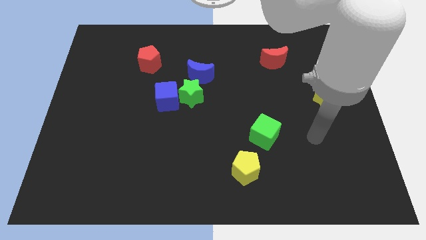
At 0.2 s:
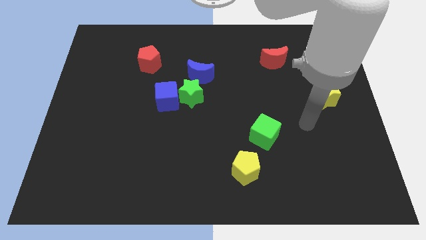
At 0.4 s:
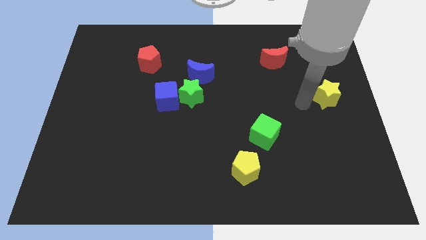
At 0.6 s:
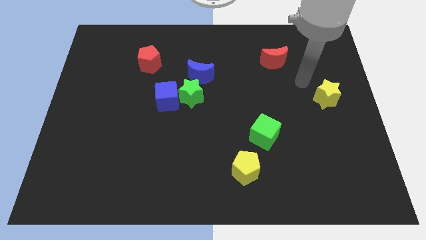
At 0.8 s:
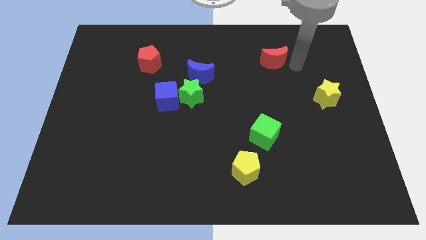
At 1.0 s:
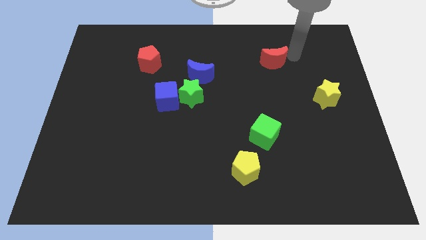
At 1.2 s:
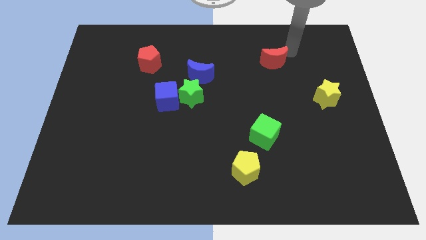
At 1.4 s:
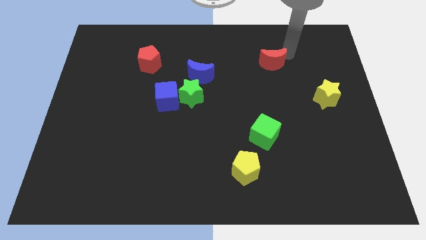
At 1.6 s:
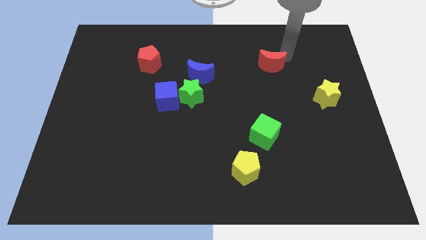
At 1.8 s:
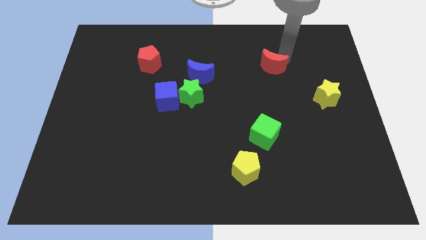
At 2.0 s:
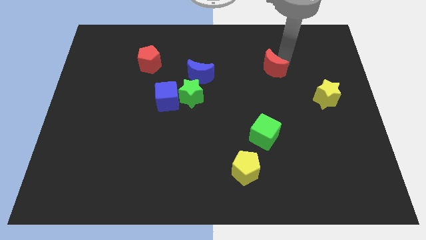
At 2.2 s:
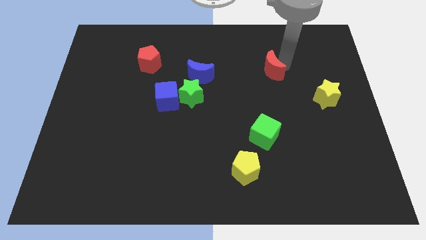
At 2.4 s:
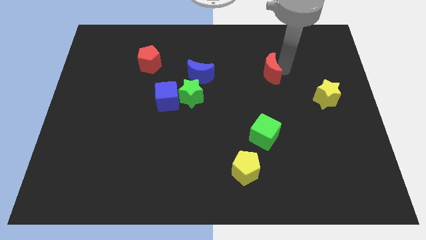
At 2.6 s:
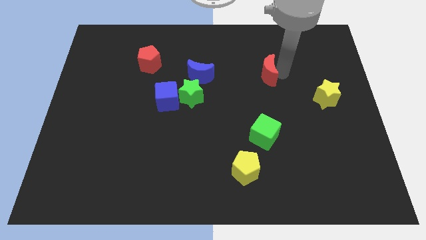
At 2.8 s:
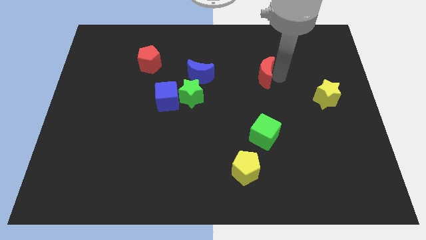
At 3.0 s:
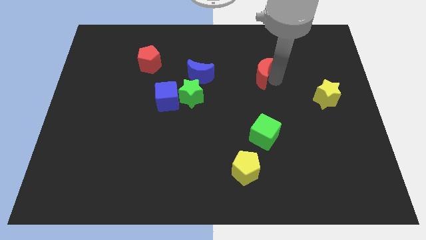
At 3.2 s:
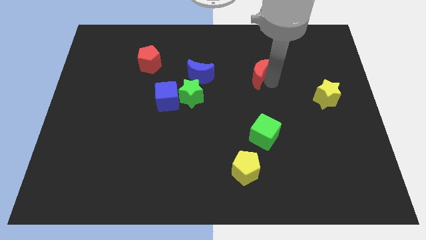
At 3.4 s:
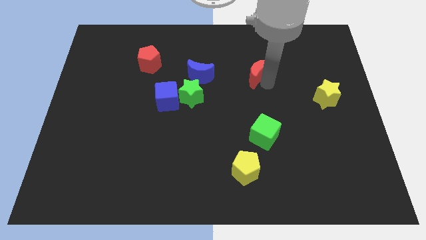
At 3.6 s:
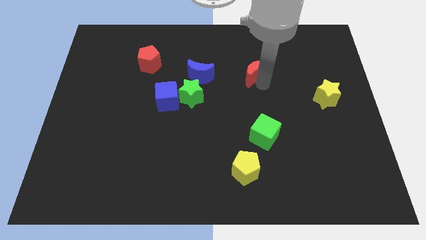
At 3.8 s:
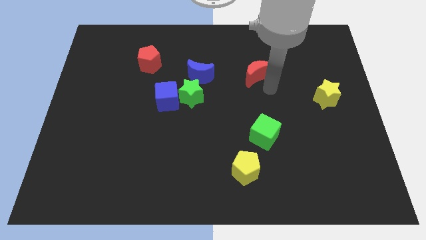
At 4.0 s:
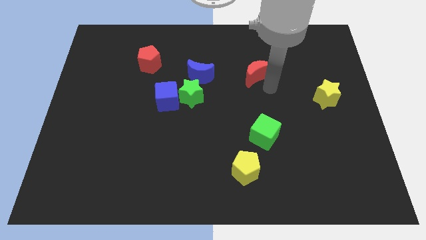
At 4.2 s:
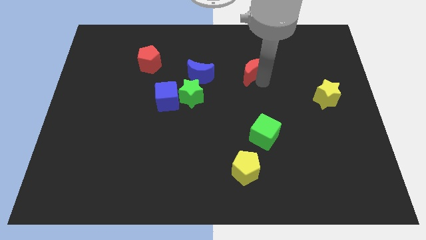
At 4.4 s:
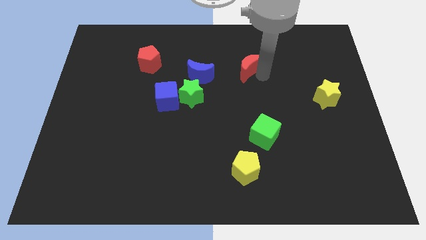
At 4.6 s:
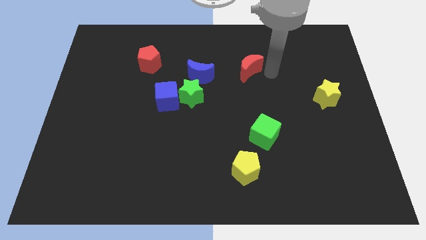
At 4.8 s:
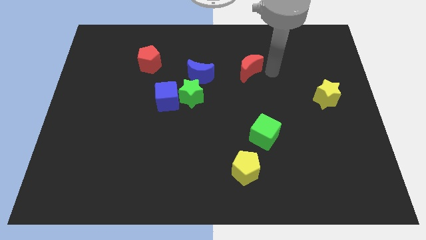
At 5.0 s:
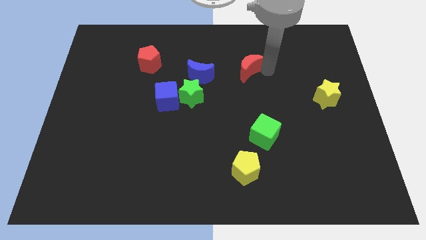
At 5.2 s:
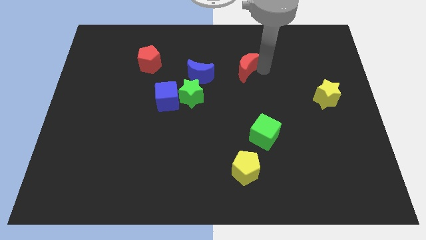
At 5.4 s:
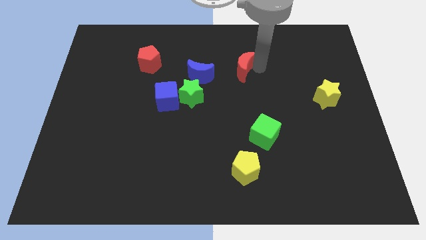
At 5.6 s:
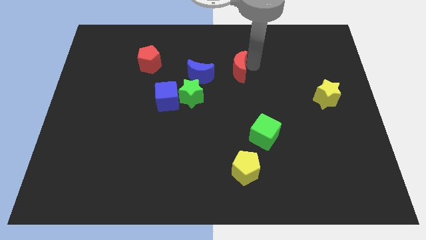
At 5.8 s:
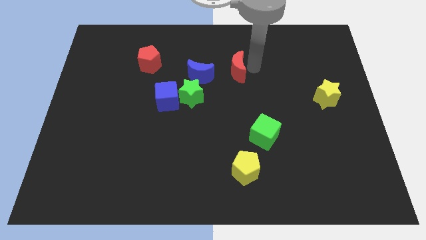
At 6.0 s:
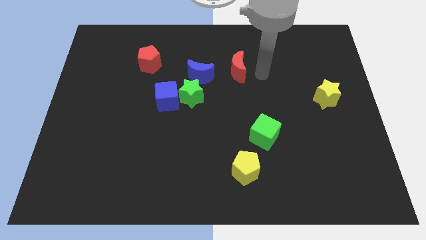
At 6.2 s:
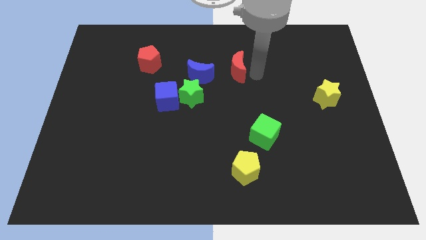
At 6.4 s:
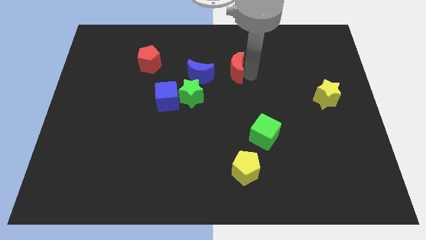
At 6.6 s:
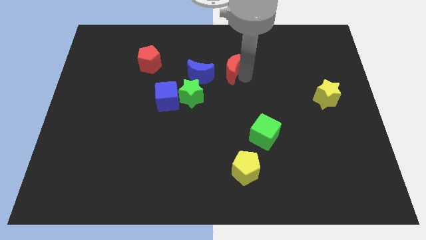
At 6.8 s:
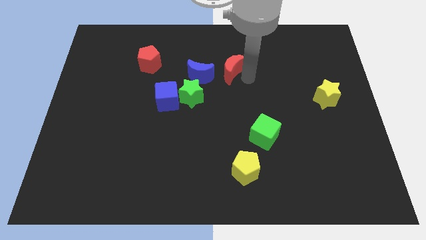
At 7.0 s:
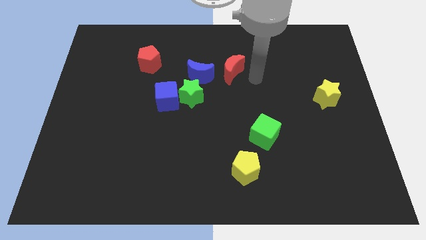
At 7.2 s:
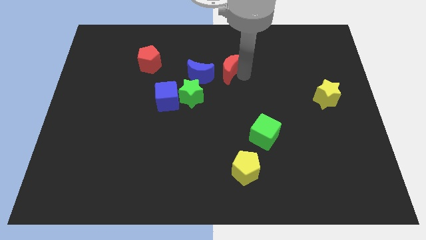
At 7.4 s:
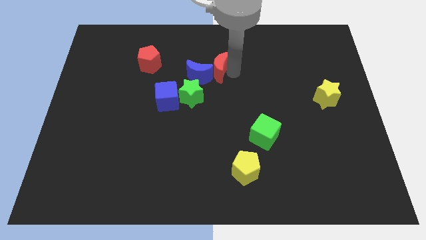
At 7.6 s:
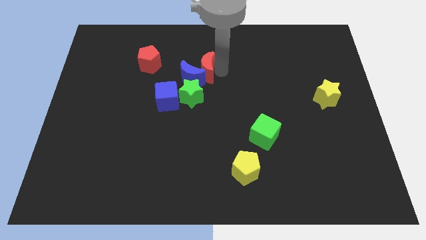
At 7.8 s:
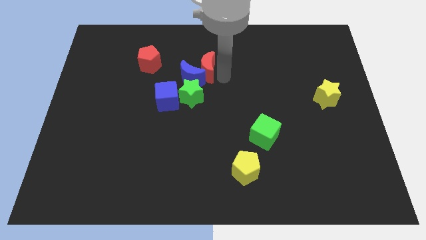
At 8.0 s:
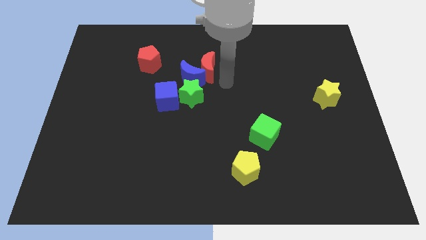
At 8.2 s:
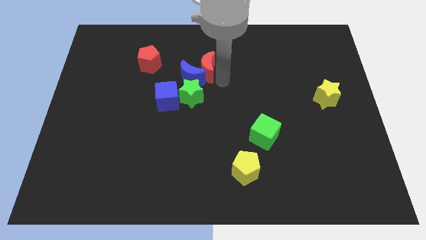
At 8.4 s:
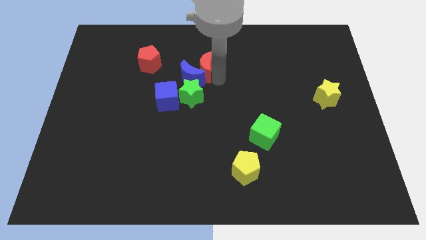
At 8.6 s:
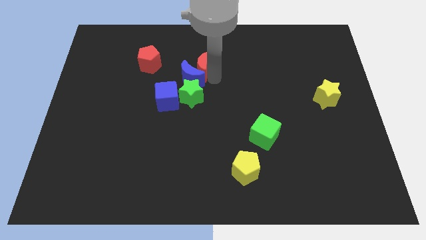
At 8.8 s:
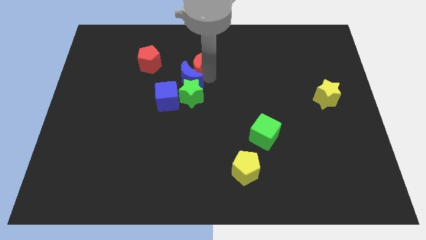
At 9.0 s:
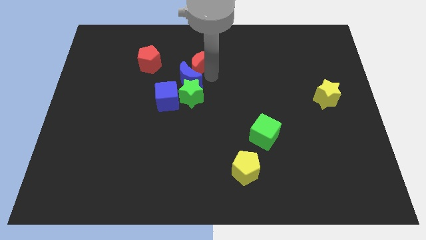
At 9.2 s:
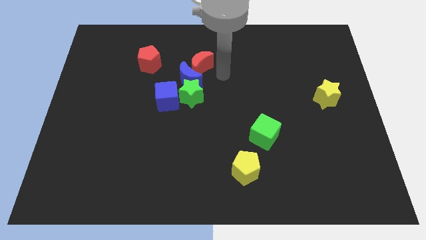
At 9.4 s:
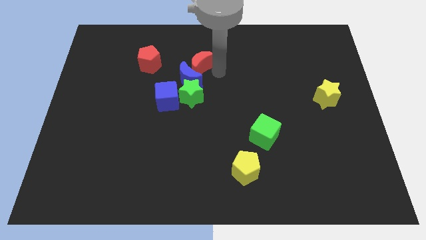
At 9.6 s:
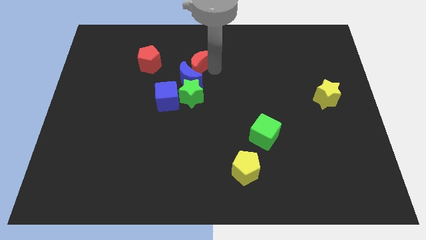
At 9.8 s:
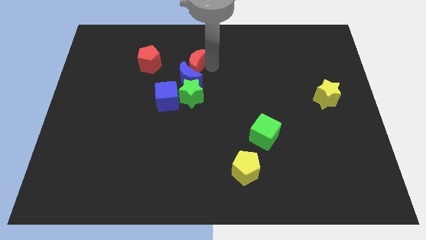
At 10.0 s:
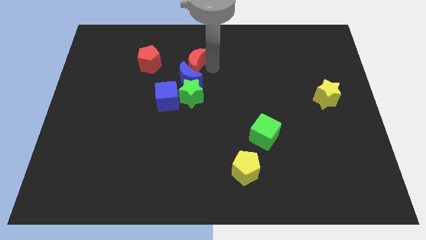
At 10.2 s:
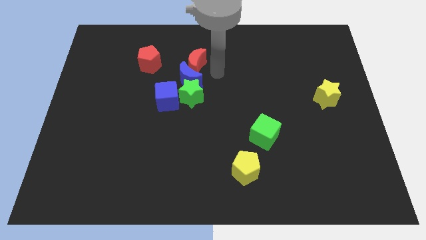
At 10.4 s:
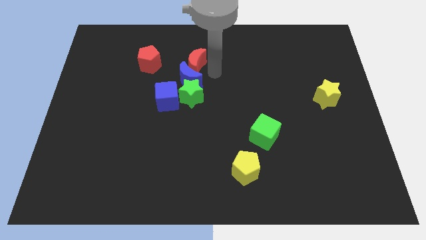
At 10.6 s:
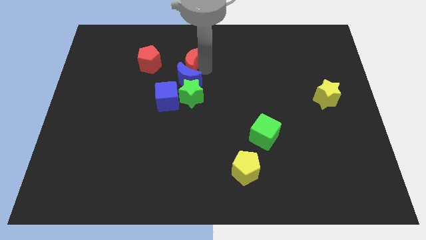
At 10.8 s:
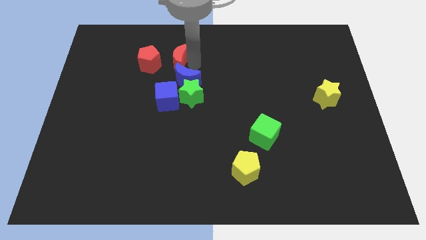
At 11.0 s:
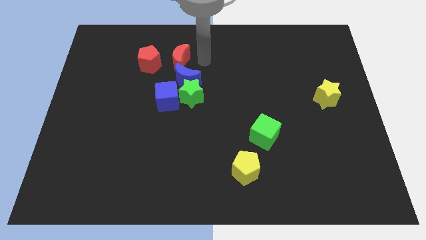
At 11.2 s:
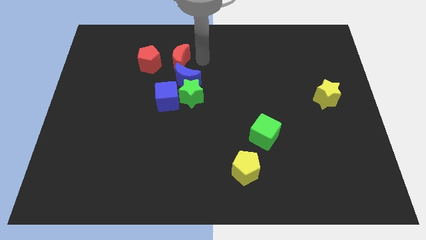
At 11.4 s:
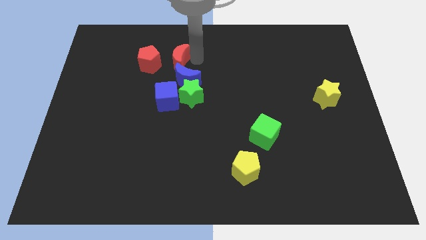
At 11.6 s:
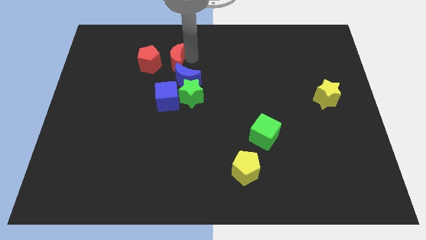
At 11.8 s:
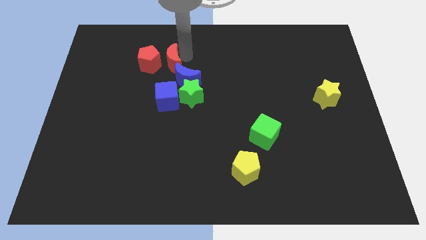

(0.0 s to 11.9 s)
push the red moon to the red pentagon
